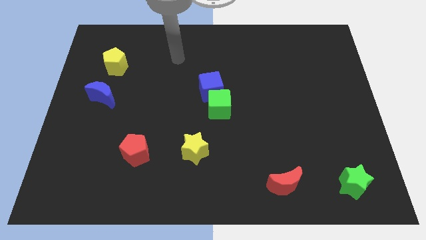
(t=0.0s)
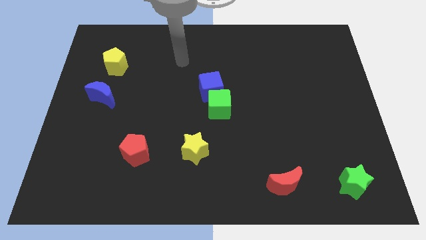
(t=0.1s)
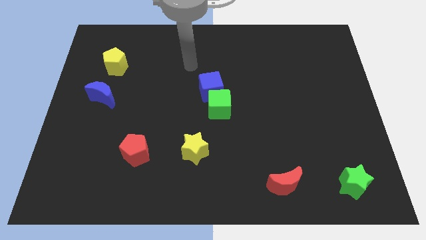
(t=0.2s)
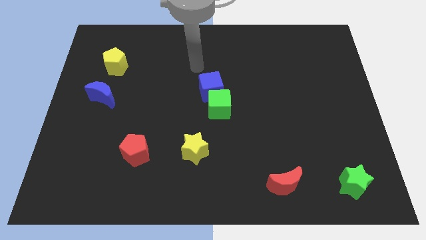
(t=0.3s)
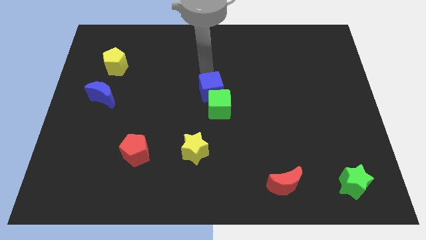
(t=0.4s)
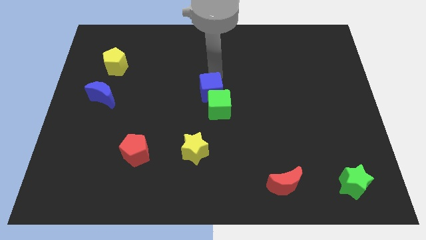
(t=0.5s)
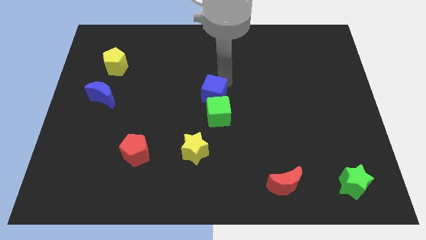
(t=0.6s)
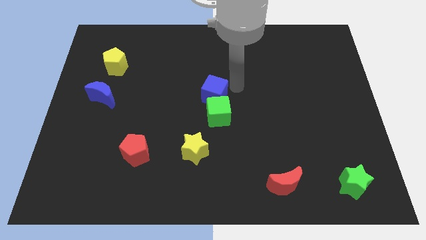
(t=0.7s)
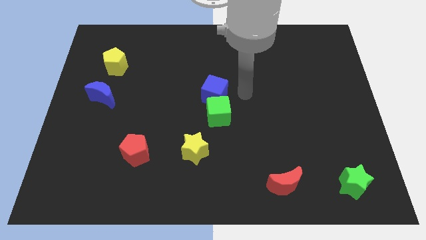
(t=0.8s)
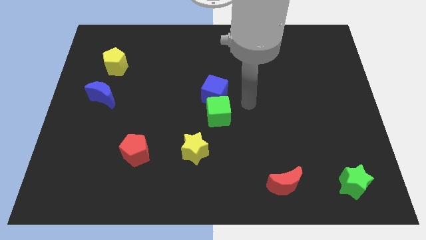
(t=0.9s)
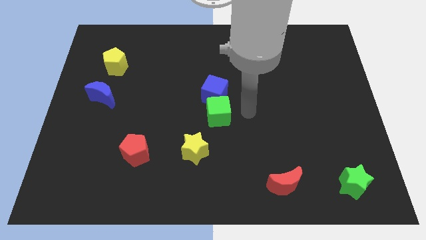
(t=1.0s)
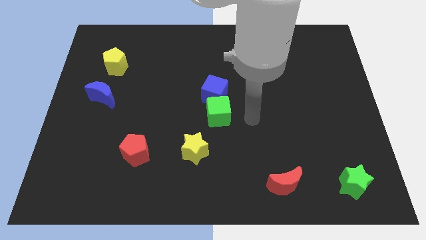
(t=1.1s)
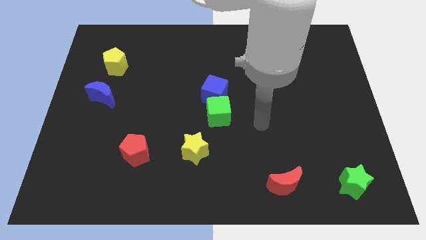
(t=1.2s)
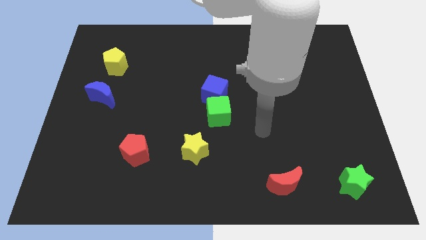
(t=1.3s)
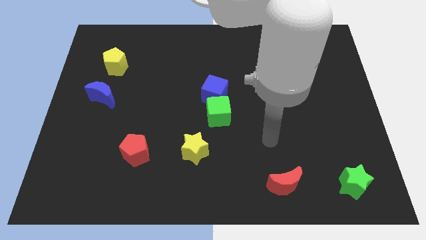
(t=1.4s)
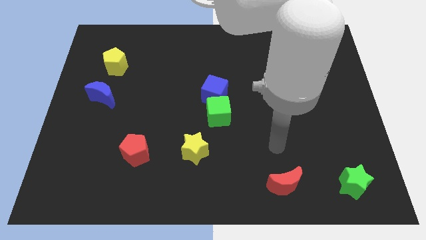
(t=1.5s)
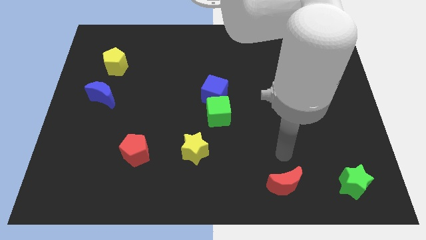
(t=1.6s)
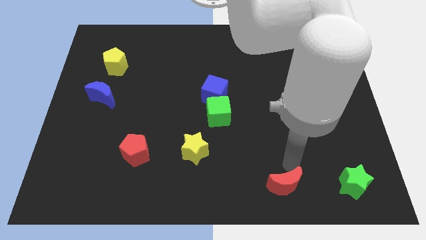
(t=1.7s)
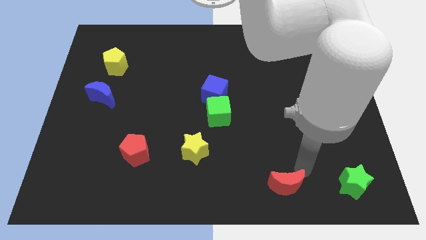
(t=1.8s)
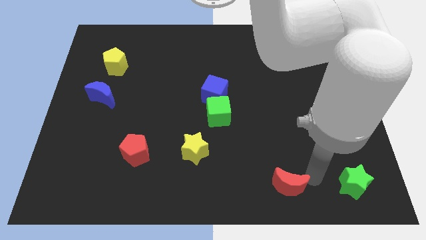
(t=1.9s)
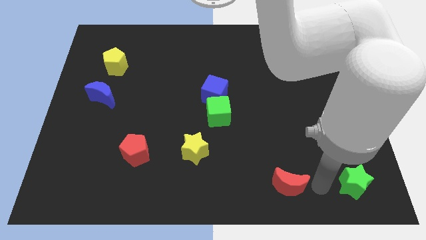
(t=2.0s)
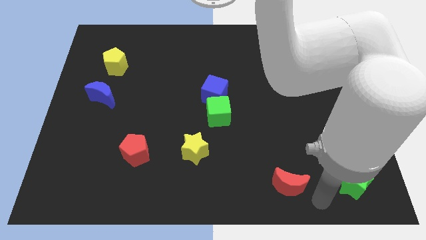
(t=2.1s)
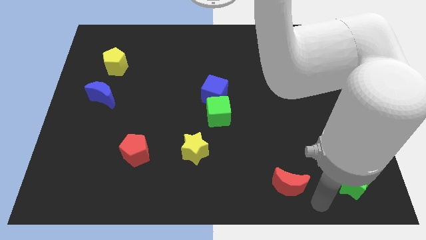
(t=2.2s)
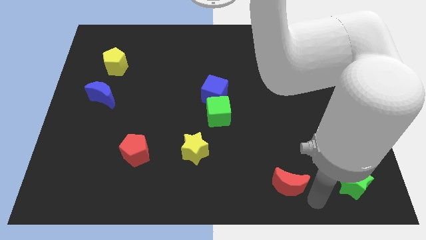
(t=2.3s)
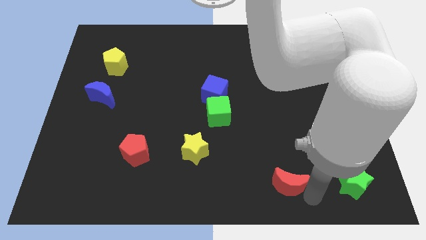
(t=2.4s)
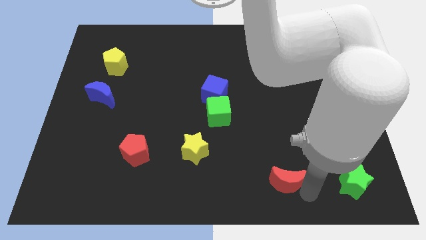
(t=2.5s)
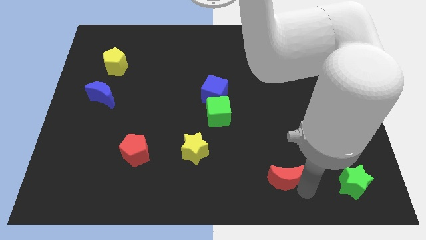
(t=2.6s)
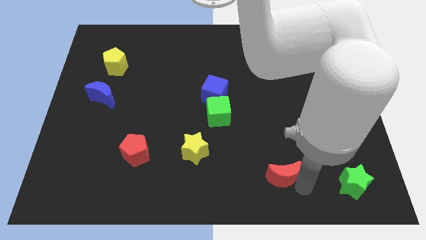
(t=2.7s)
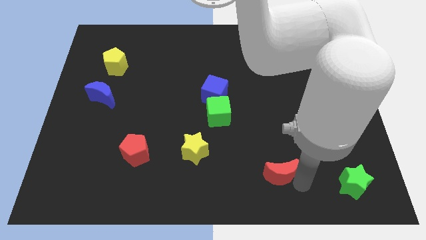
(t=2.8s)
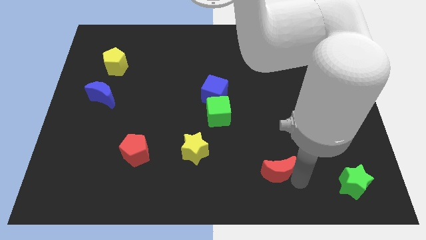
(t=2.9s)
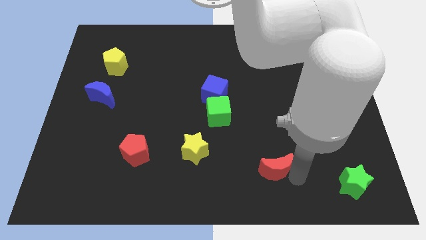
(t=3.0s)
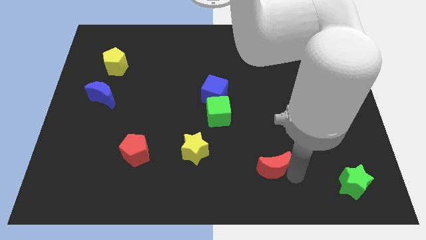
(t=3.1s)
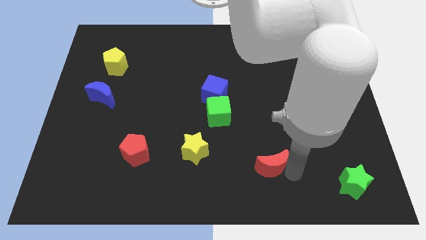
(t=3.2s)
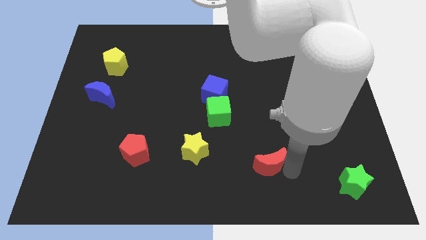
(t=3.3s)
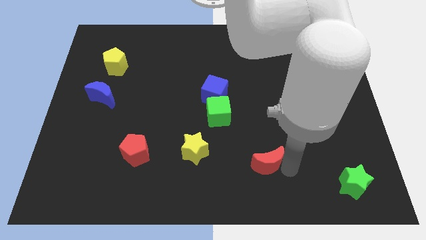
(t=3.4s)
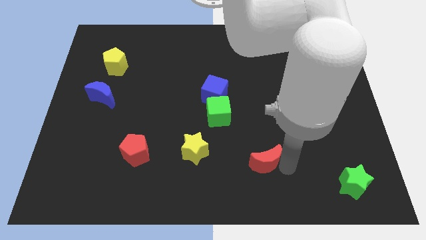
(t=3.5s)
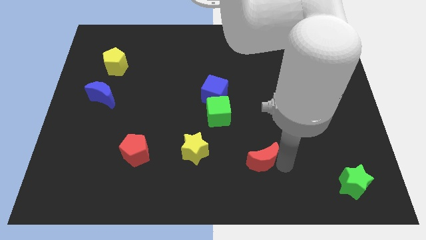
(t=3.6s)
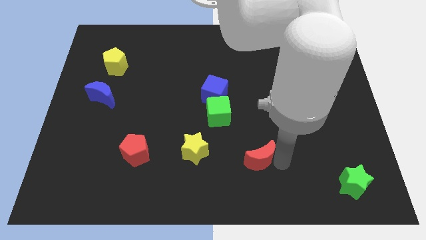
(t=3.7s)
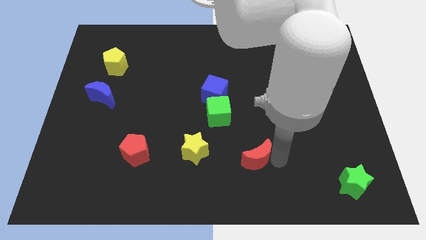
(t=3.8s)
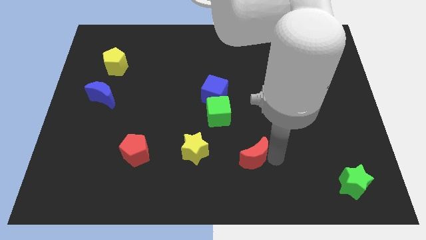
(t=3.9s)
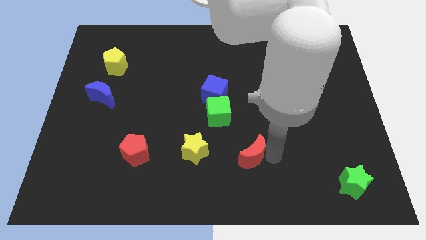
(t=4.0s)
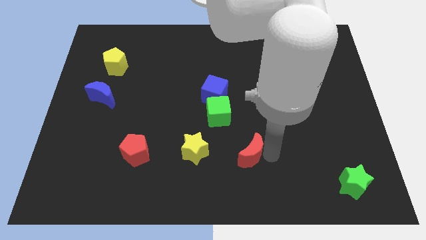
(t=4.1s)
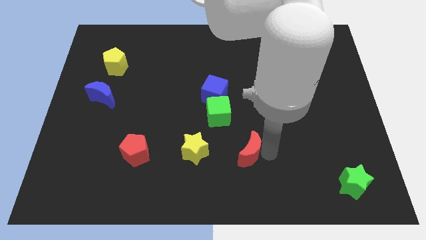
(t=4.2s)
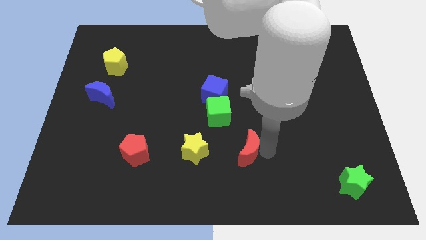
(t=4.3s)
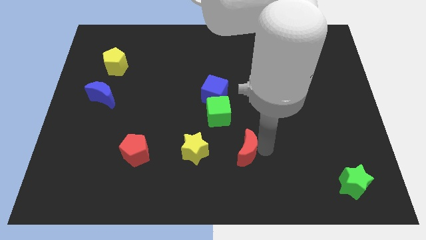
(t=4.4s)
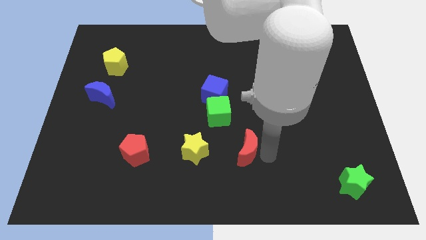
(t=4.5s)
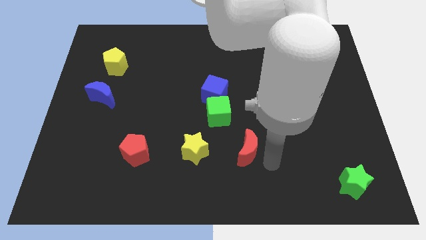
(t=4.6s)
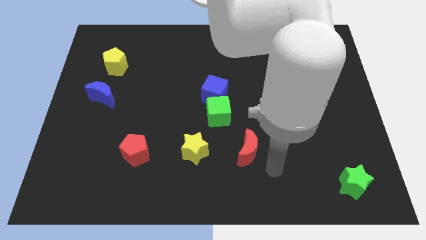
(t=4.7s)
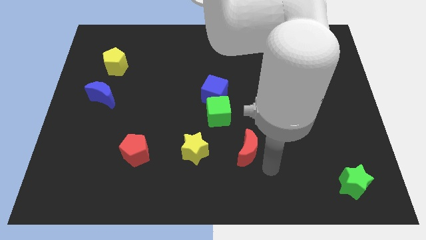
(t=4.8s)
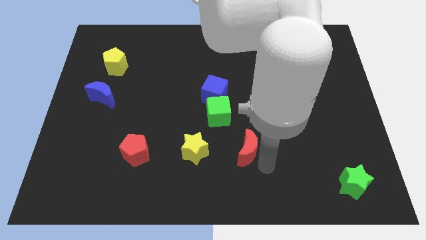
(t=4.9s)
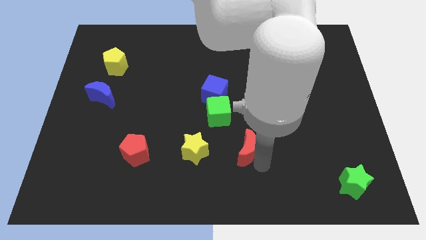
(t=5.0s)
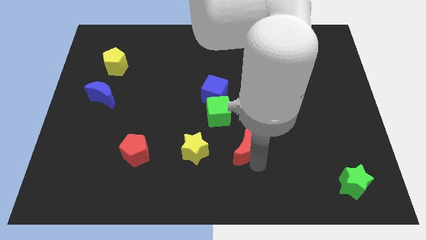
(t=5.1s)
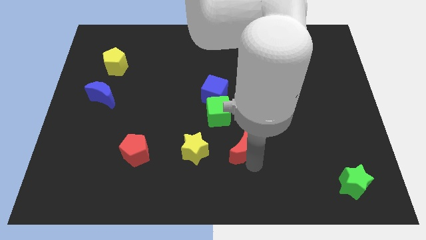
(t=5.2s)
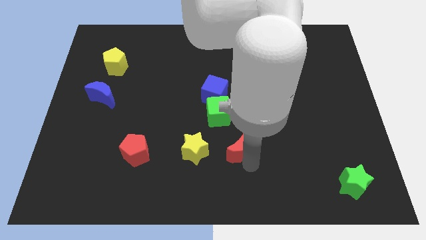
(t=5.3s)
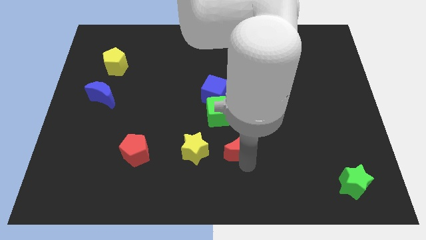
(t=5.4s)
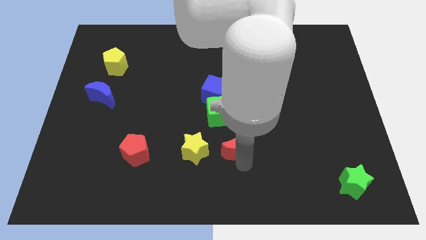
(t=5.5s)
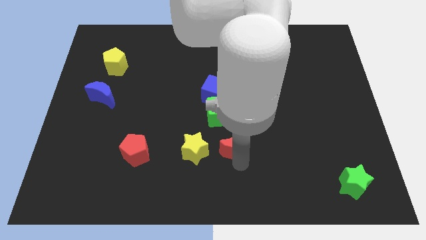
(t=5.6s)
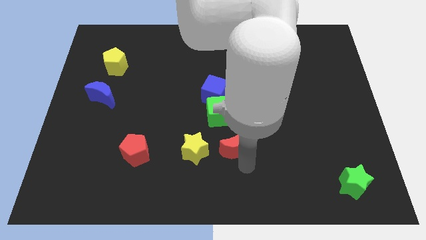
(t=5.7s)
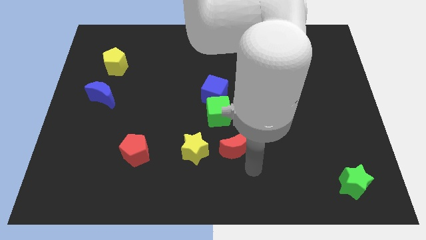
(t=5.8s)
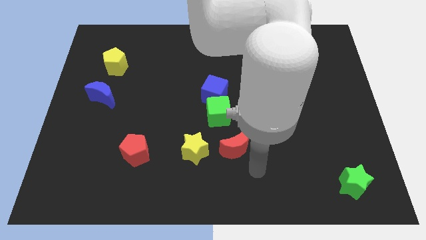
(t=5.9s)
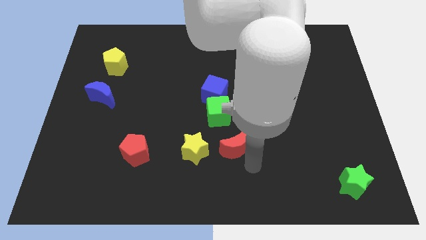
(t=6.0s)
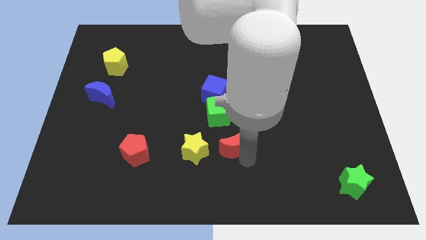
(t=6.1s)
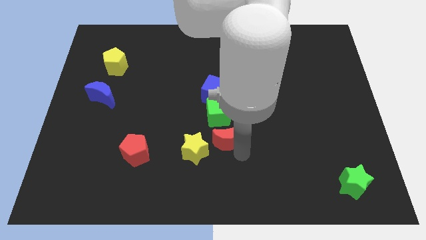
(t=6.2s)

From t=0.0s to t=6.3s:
push the red moon to the top right side of the yellow star
